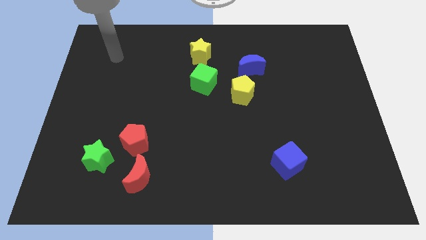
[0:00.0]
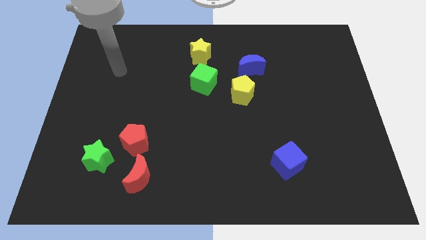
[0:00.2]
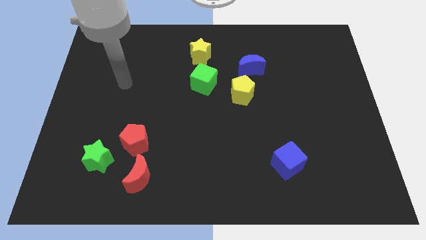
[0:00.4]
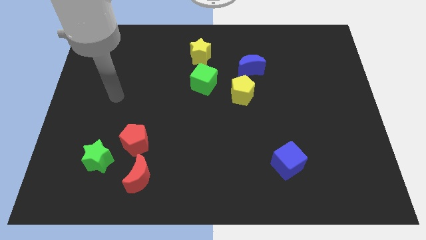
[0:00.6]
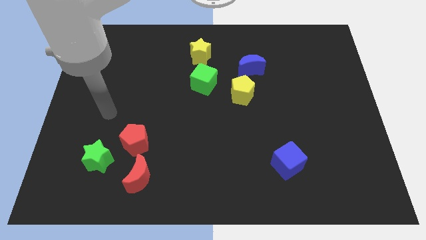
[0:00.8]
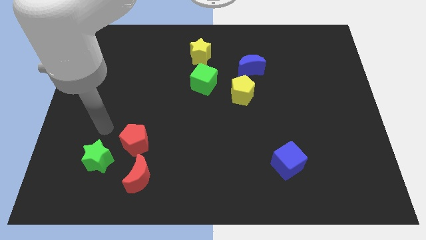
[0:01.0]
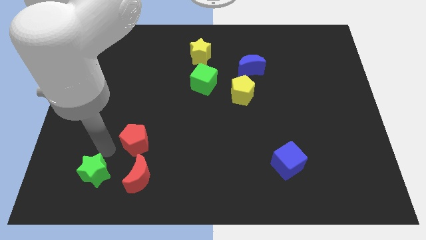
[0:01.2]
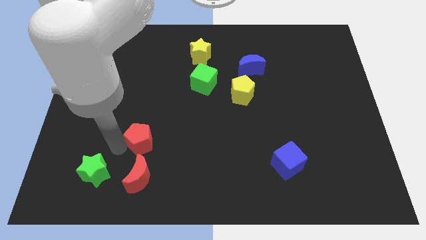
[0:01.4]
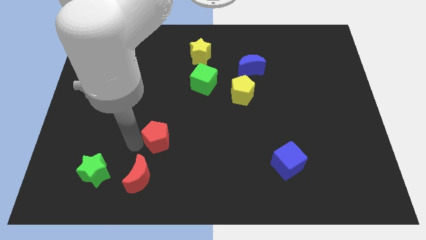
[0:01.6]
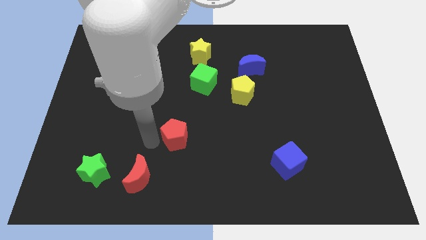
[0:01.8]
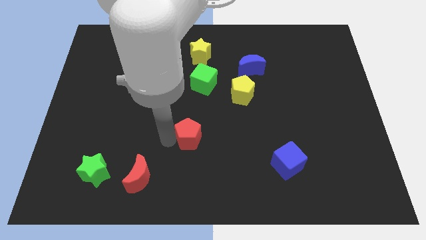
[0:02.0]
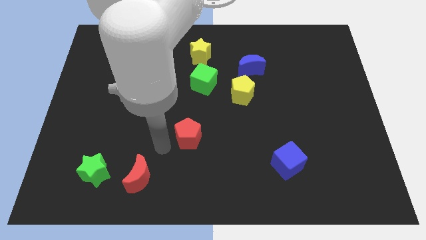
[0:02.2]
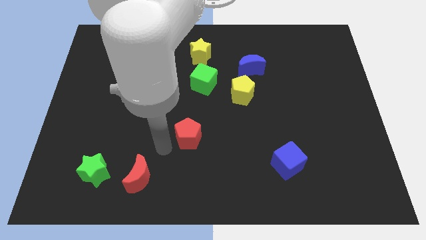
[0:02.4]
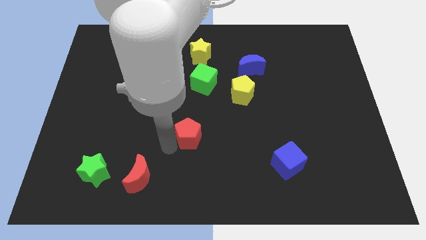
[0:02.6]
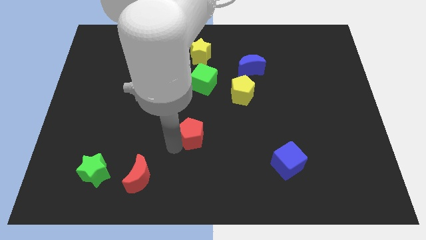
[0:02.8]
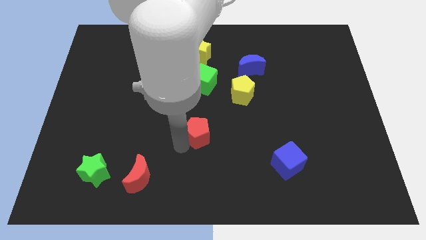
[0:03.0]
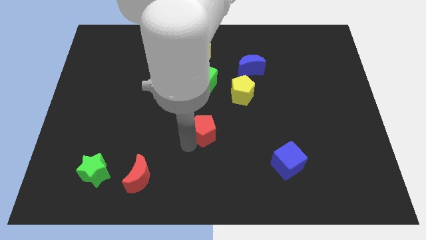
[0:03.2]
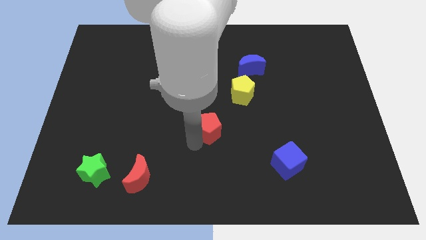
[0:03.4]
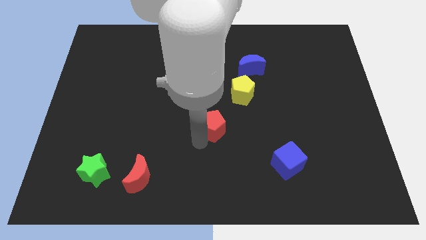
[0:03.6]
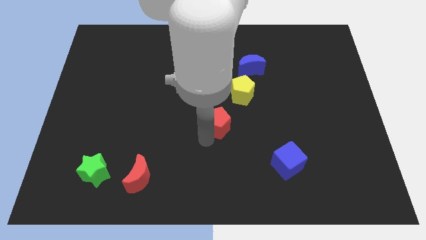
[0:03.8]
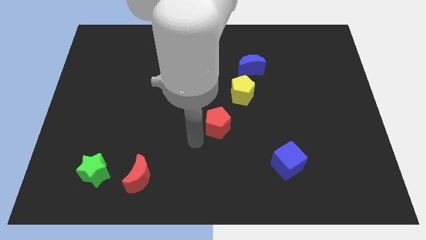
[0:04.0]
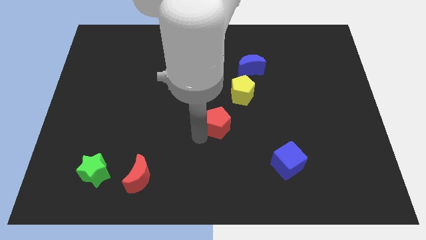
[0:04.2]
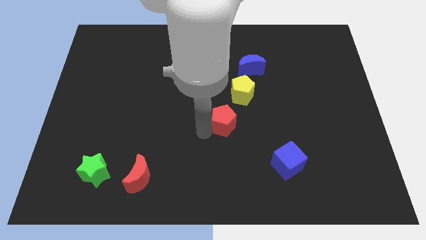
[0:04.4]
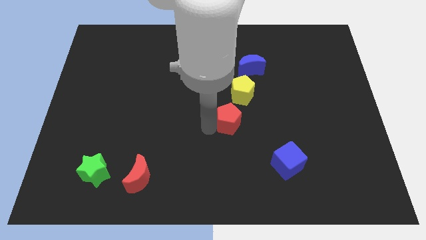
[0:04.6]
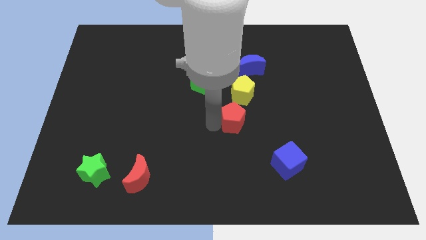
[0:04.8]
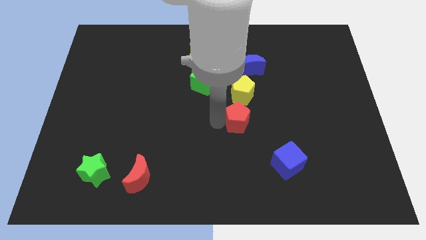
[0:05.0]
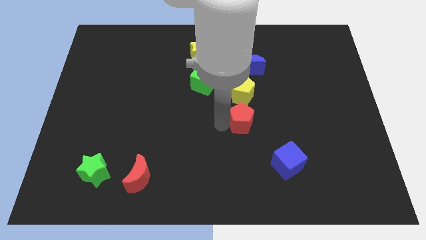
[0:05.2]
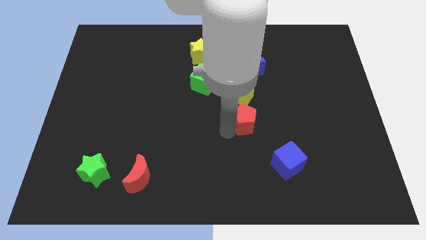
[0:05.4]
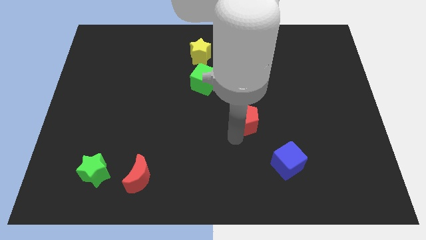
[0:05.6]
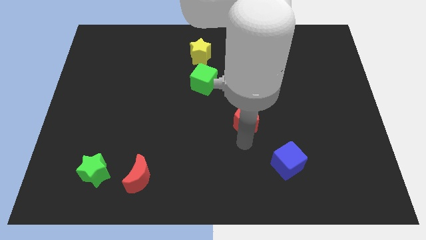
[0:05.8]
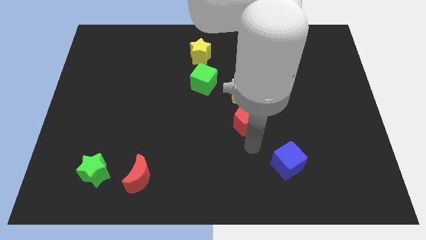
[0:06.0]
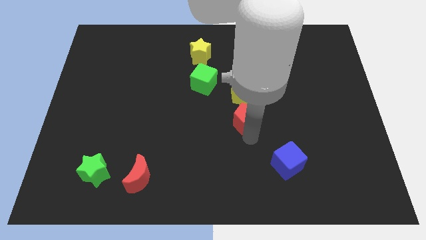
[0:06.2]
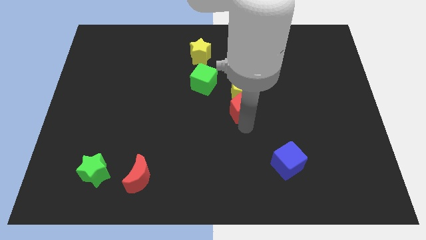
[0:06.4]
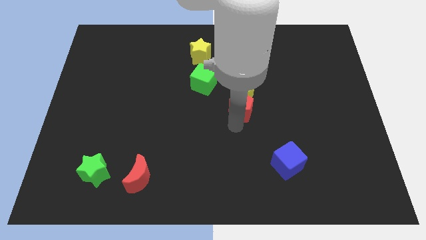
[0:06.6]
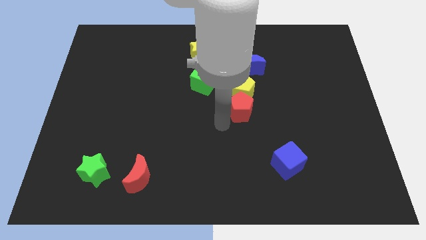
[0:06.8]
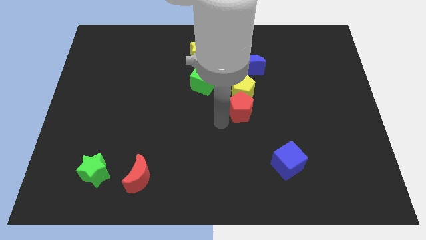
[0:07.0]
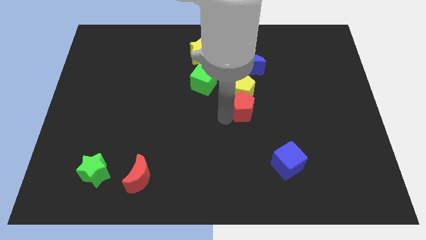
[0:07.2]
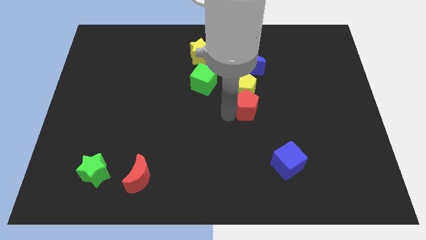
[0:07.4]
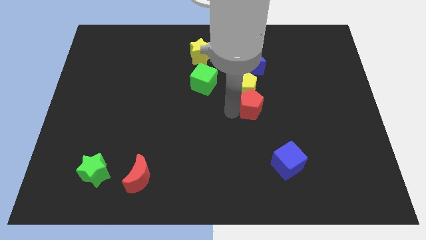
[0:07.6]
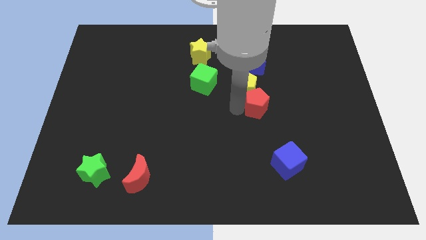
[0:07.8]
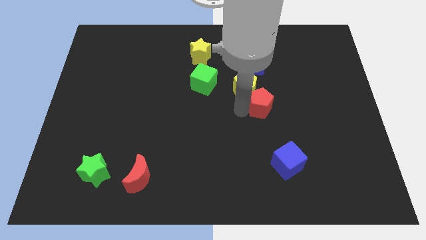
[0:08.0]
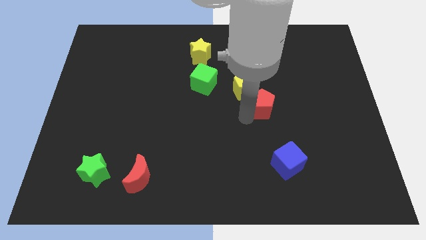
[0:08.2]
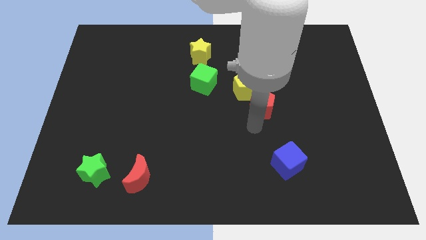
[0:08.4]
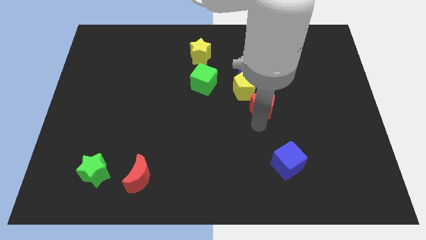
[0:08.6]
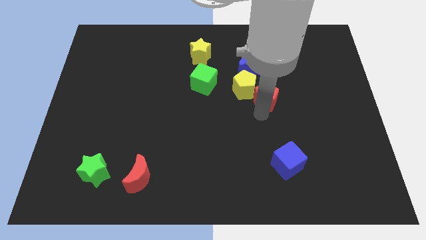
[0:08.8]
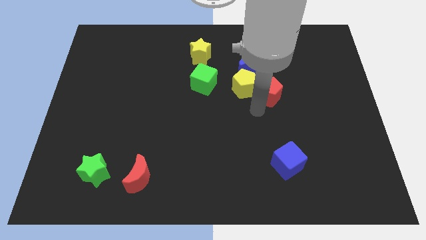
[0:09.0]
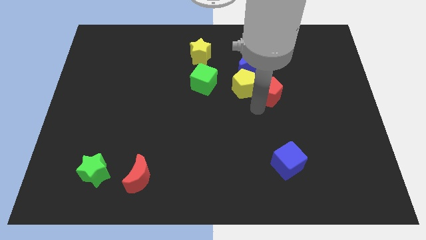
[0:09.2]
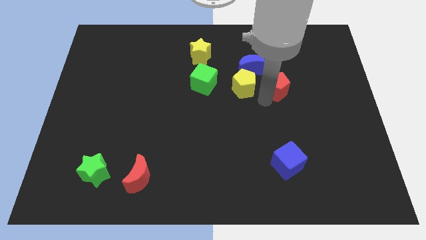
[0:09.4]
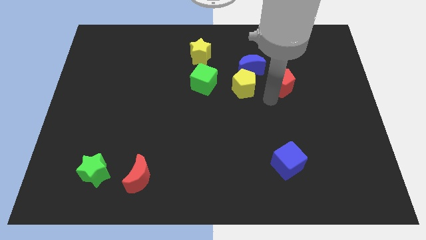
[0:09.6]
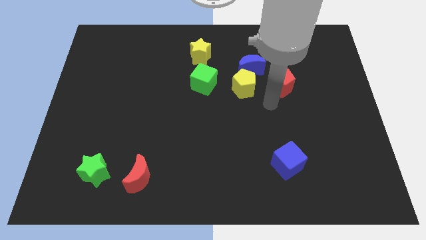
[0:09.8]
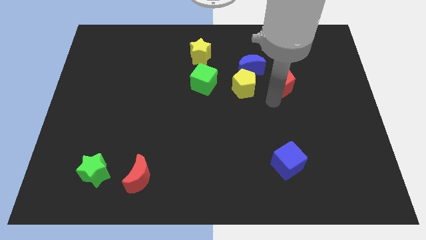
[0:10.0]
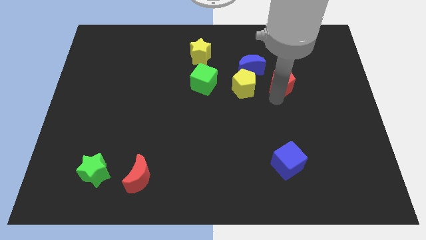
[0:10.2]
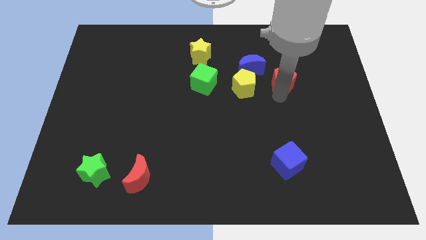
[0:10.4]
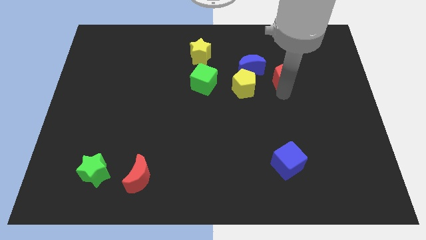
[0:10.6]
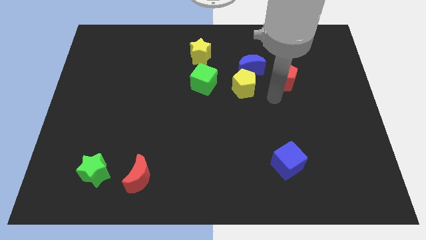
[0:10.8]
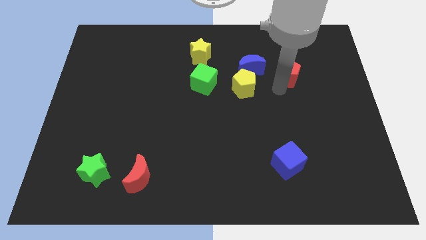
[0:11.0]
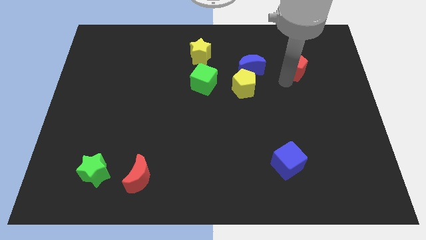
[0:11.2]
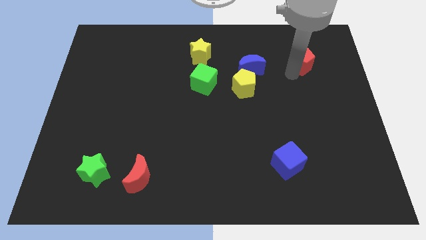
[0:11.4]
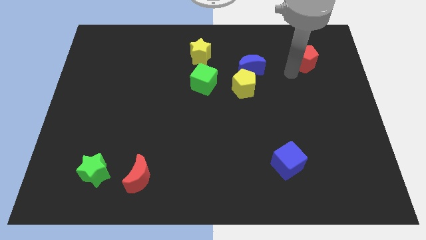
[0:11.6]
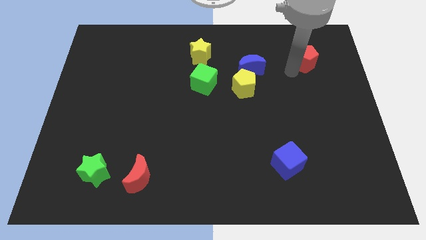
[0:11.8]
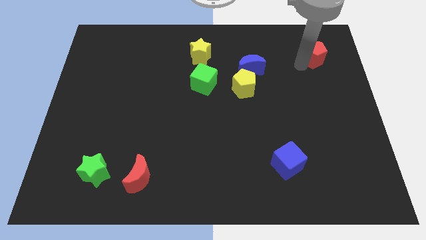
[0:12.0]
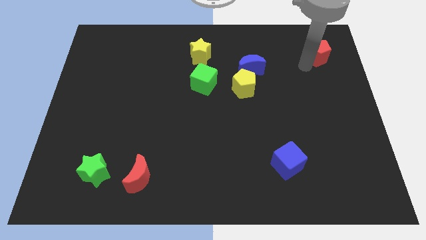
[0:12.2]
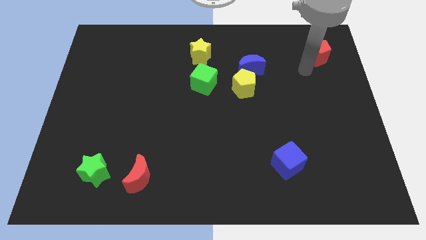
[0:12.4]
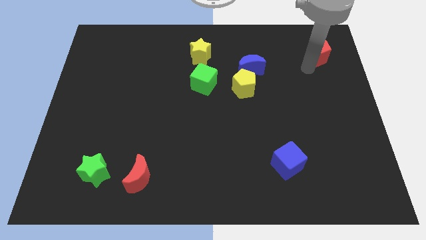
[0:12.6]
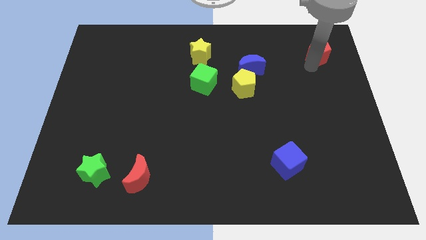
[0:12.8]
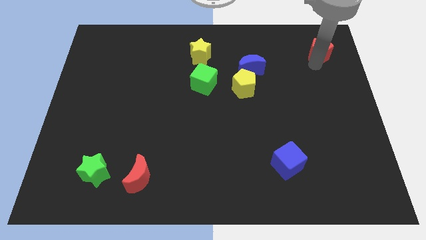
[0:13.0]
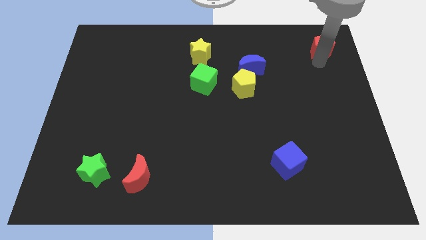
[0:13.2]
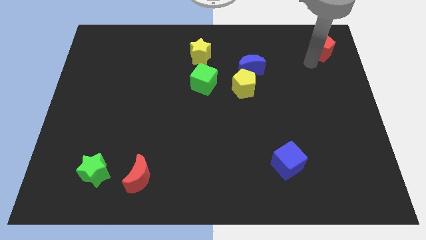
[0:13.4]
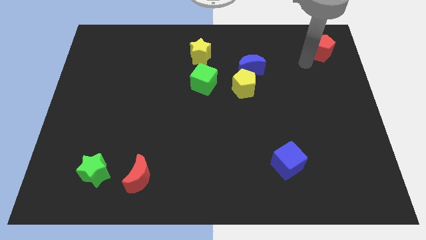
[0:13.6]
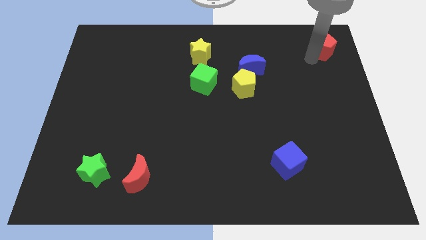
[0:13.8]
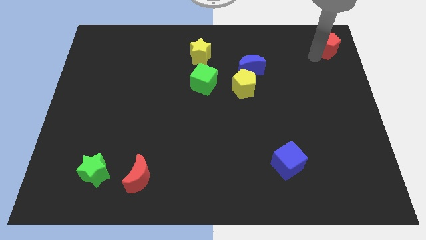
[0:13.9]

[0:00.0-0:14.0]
move the red pentagon to the top right corner

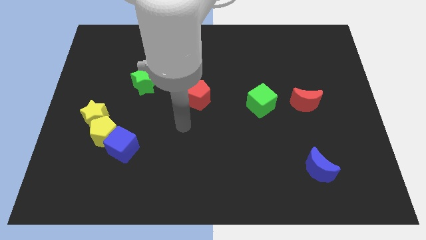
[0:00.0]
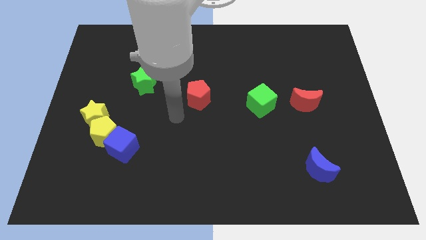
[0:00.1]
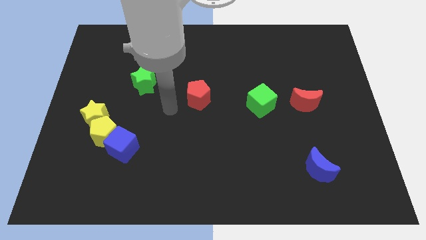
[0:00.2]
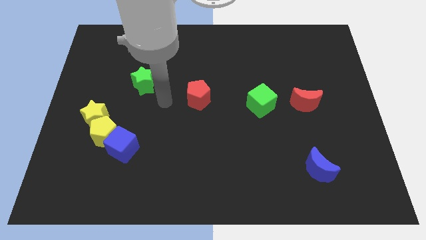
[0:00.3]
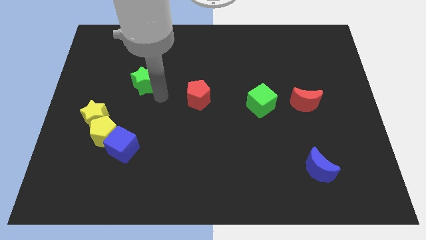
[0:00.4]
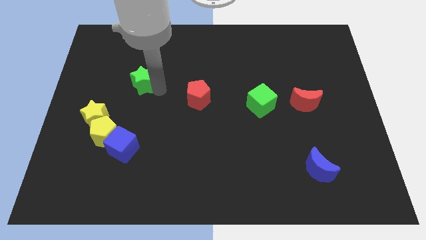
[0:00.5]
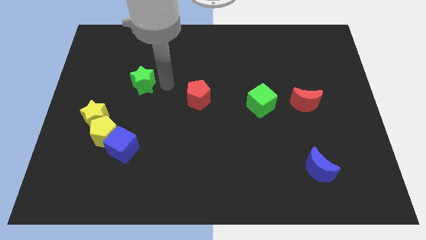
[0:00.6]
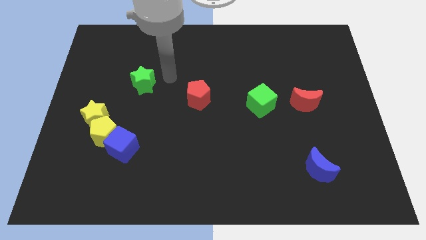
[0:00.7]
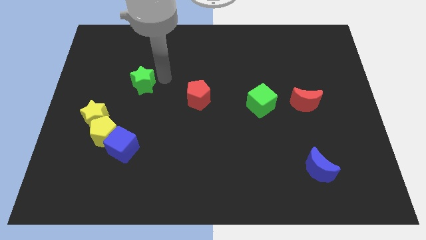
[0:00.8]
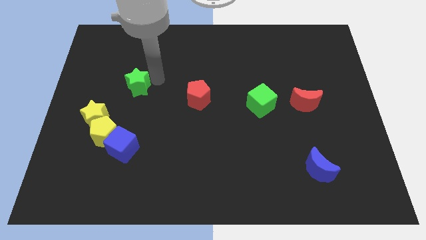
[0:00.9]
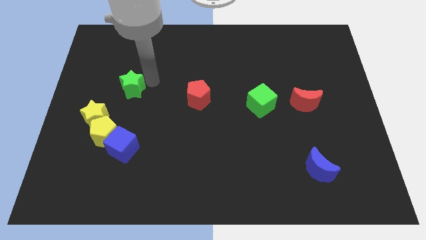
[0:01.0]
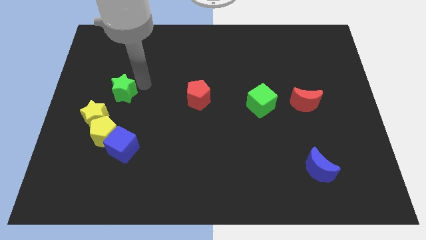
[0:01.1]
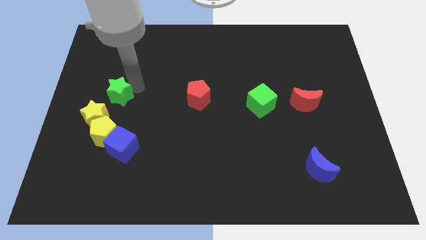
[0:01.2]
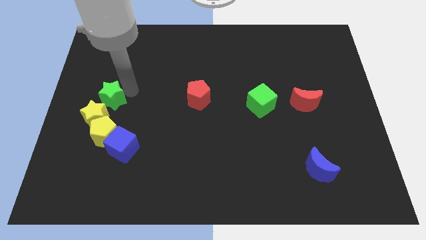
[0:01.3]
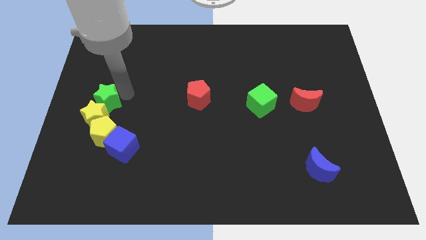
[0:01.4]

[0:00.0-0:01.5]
push the green star to the center left
